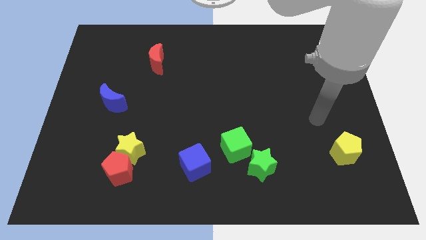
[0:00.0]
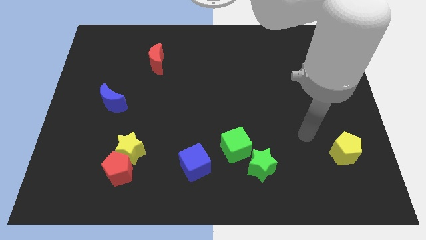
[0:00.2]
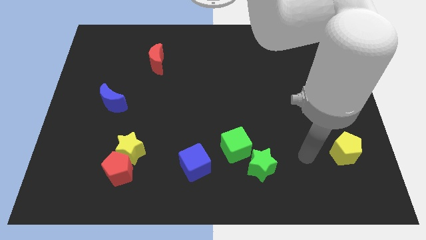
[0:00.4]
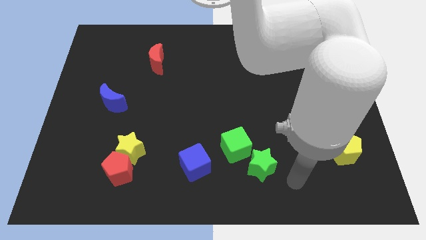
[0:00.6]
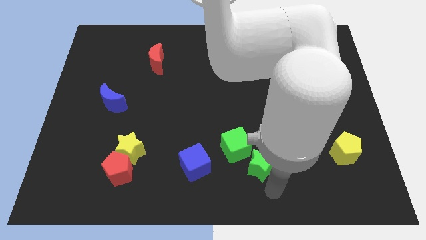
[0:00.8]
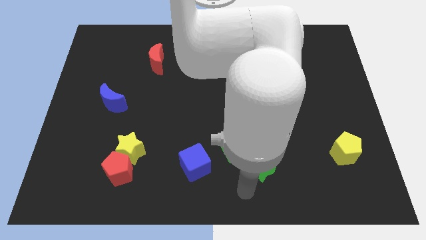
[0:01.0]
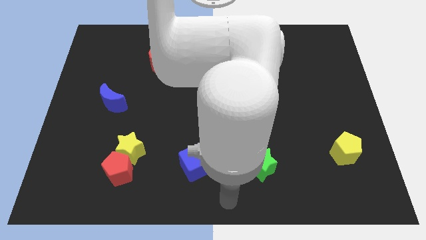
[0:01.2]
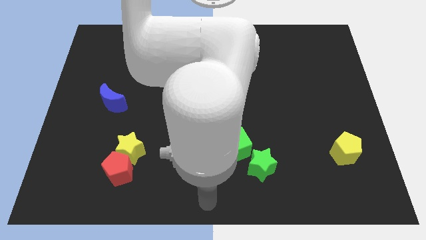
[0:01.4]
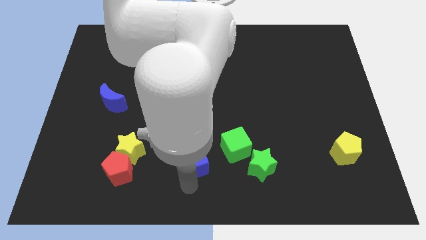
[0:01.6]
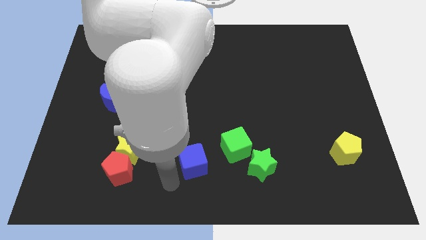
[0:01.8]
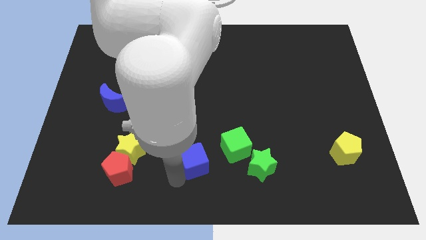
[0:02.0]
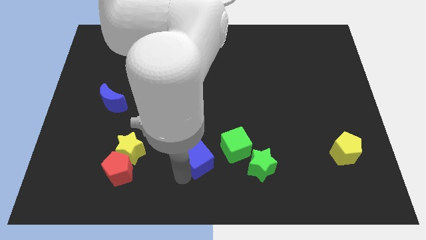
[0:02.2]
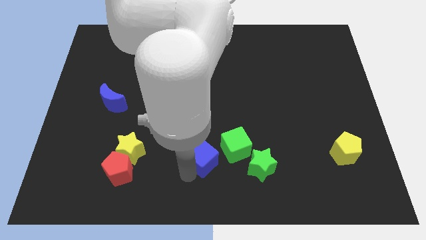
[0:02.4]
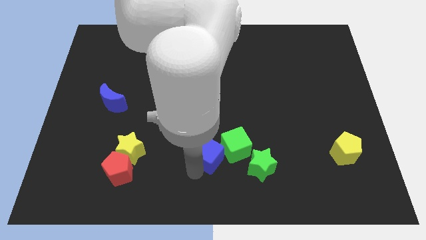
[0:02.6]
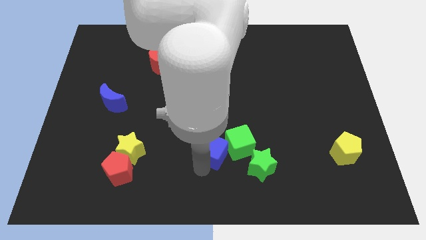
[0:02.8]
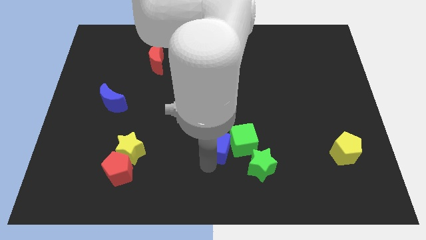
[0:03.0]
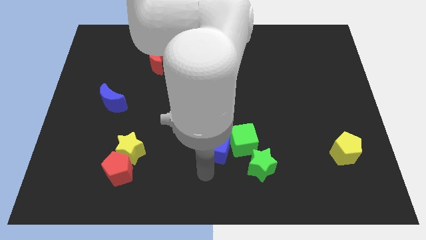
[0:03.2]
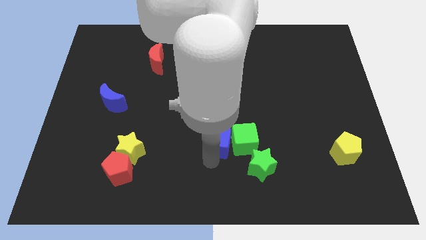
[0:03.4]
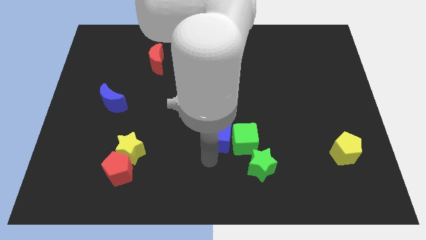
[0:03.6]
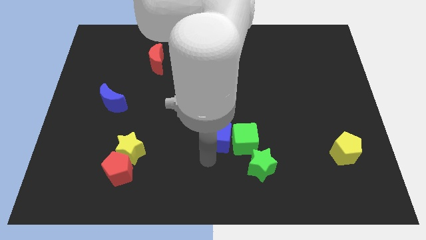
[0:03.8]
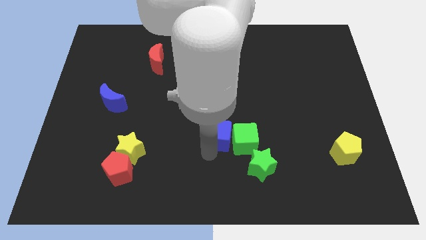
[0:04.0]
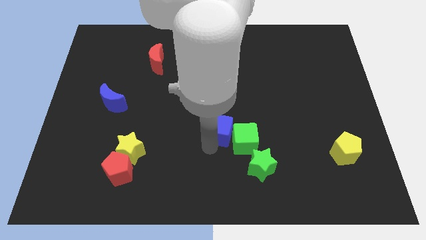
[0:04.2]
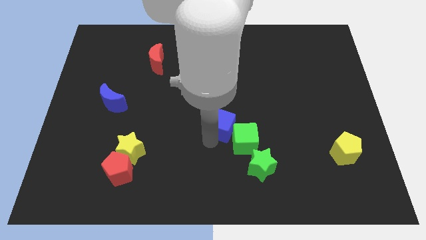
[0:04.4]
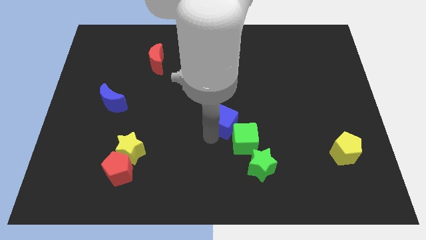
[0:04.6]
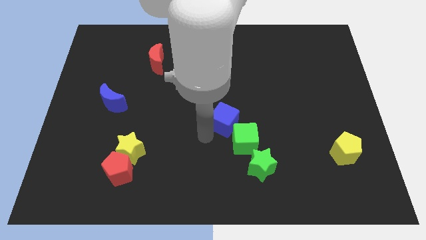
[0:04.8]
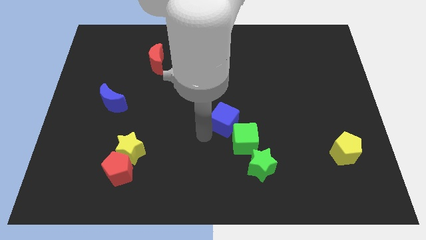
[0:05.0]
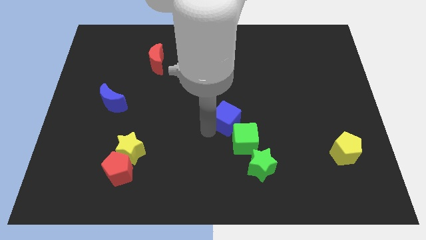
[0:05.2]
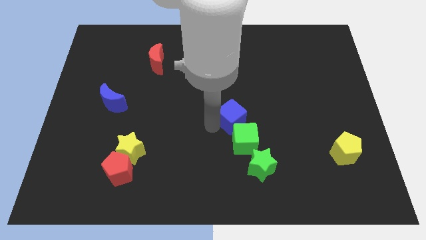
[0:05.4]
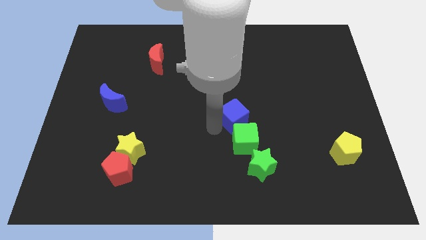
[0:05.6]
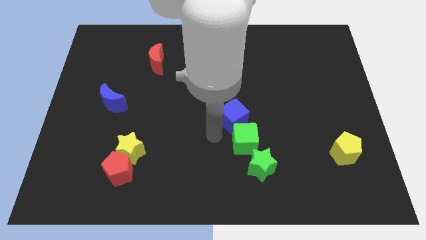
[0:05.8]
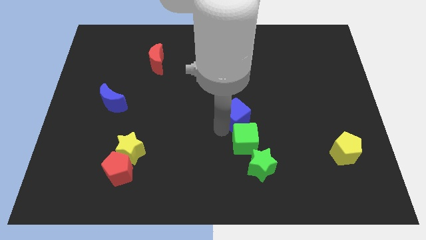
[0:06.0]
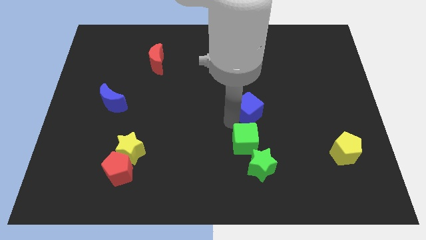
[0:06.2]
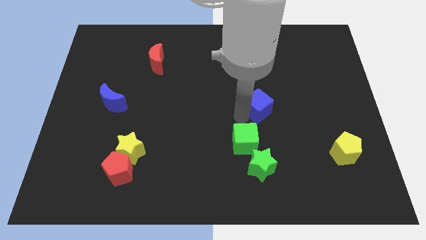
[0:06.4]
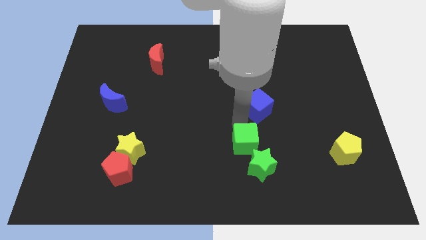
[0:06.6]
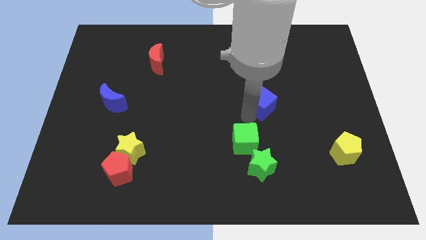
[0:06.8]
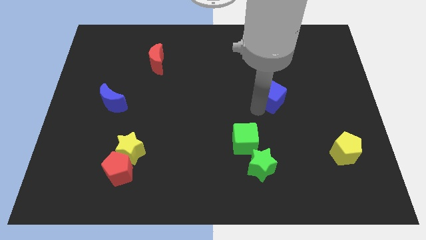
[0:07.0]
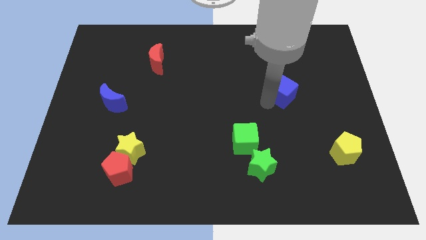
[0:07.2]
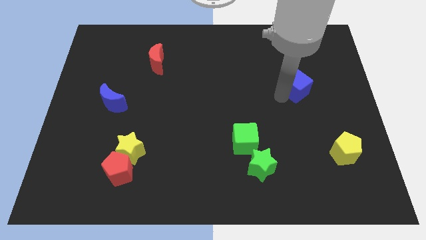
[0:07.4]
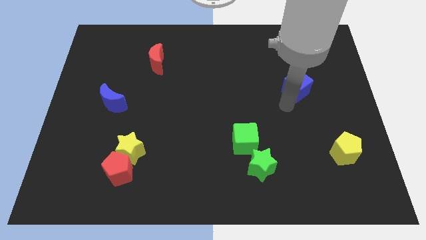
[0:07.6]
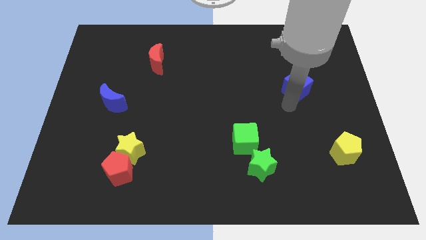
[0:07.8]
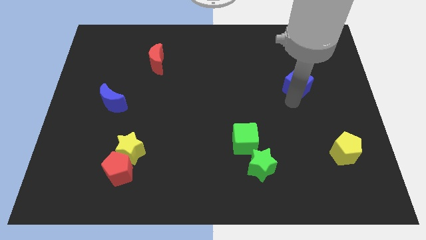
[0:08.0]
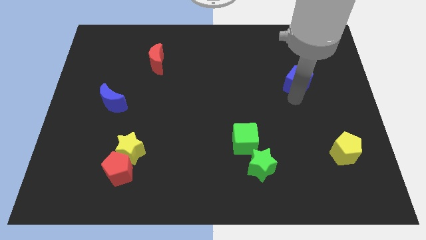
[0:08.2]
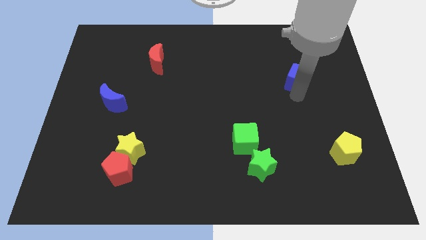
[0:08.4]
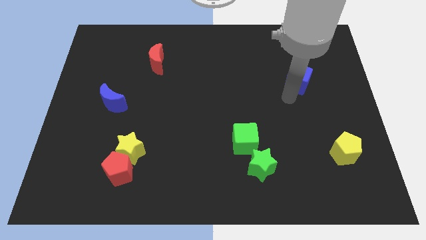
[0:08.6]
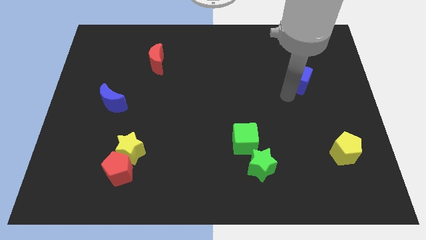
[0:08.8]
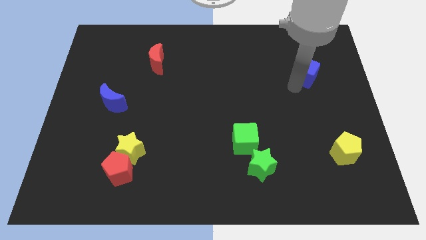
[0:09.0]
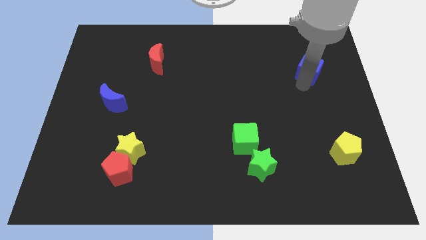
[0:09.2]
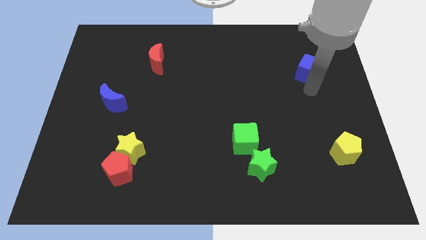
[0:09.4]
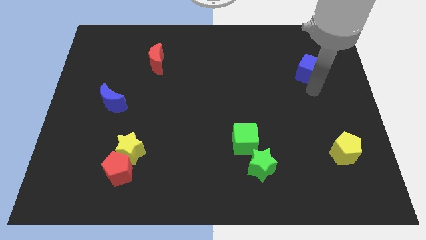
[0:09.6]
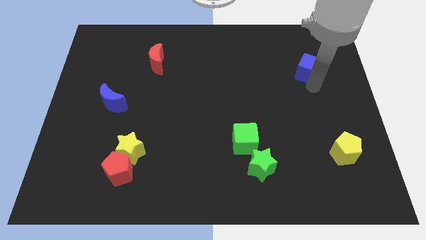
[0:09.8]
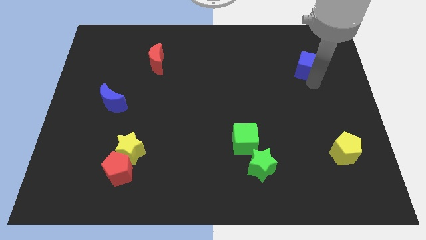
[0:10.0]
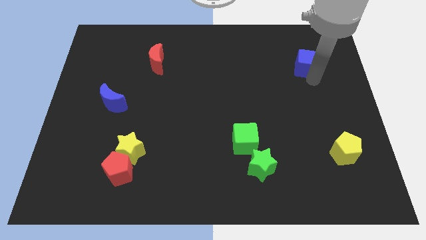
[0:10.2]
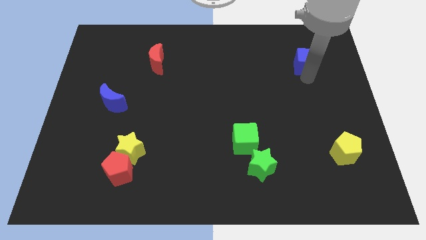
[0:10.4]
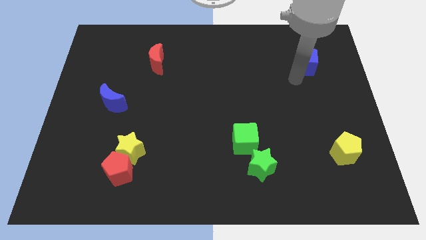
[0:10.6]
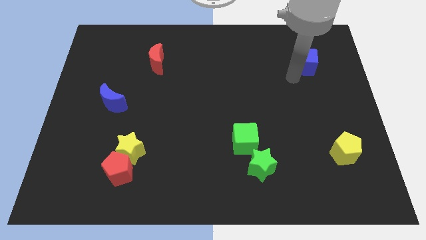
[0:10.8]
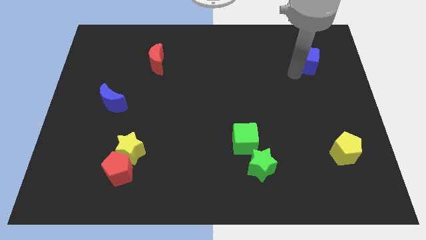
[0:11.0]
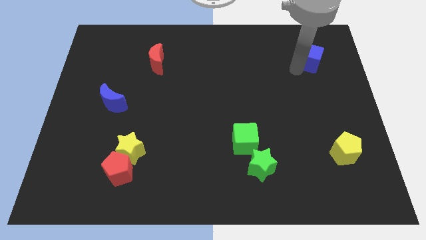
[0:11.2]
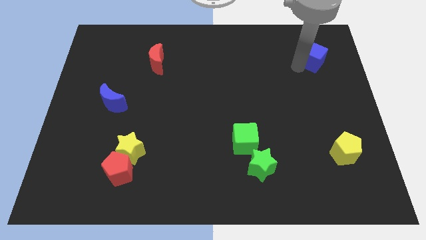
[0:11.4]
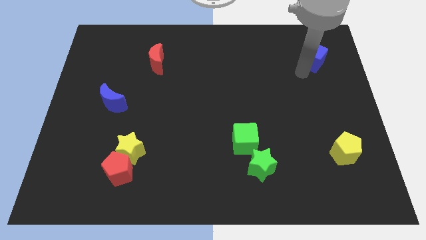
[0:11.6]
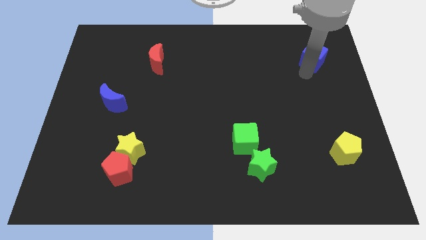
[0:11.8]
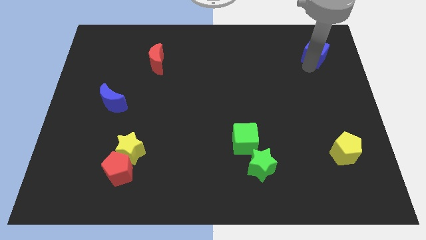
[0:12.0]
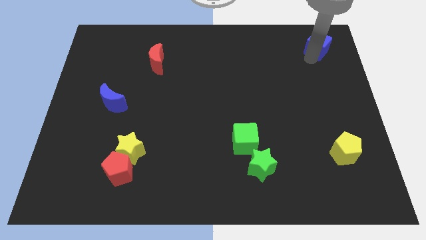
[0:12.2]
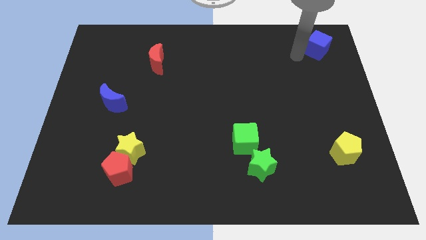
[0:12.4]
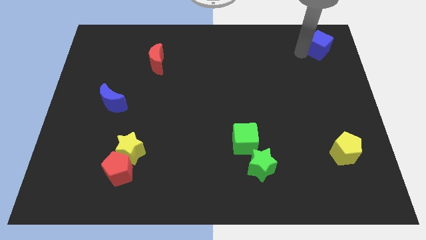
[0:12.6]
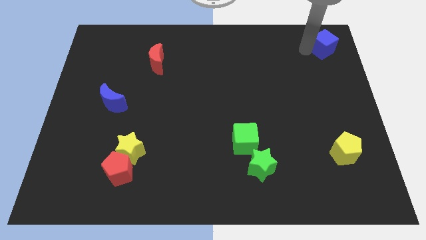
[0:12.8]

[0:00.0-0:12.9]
move the blue cube to the upper right corner

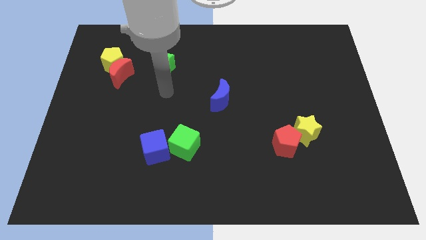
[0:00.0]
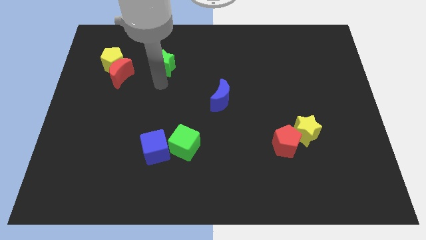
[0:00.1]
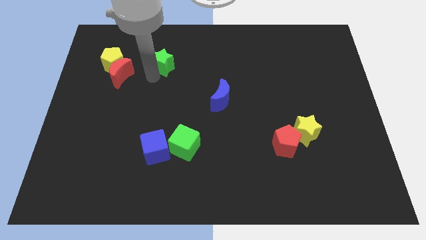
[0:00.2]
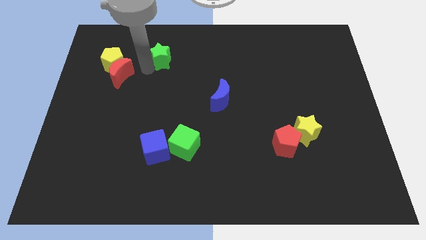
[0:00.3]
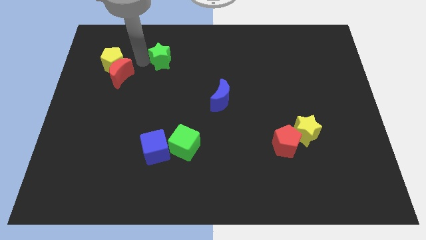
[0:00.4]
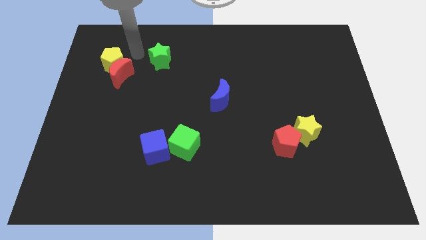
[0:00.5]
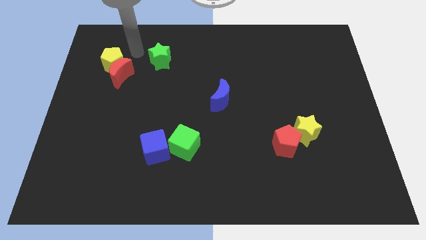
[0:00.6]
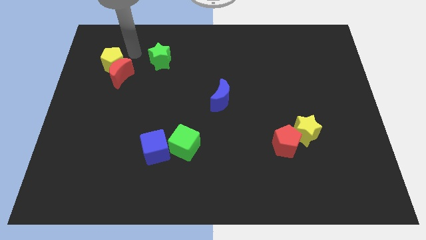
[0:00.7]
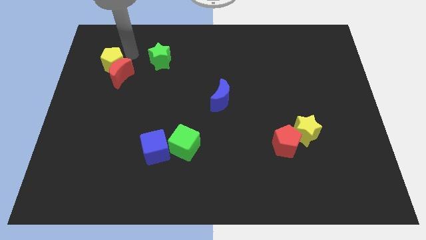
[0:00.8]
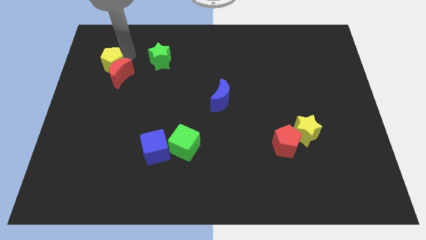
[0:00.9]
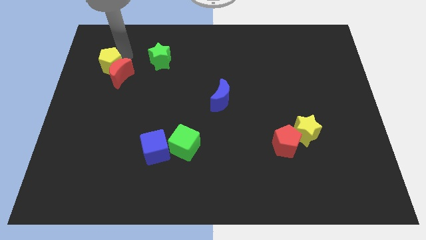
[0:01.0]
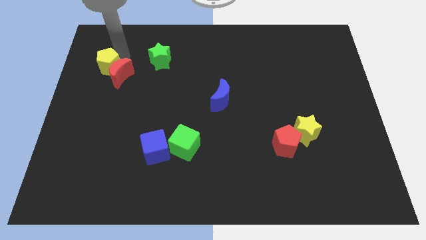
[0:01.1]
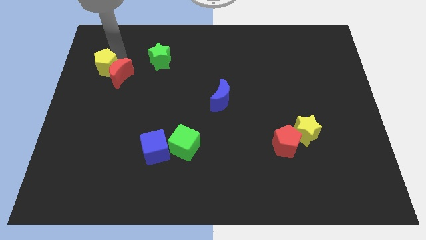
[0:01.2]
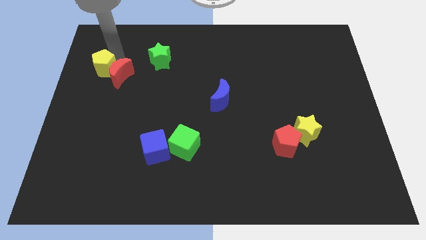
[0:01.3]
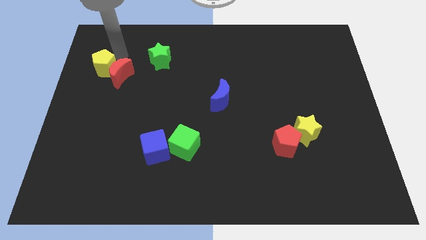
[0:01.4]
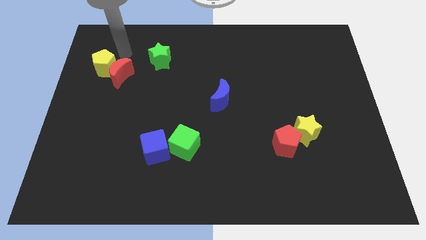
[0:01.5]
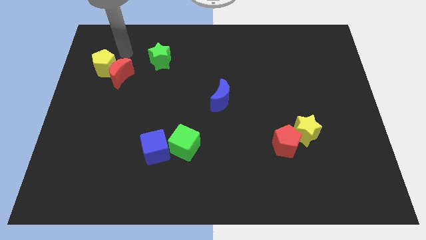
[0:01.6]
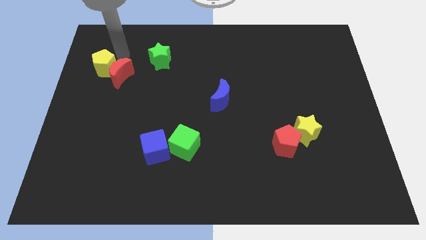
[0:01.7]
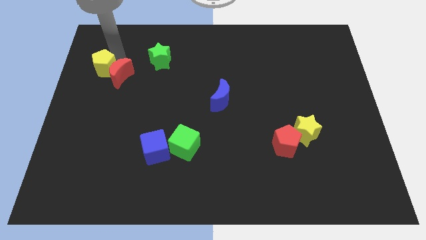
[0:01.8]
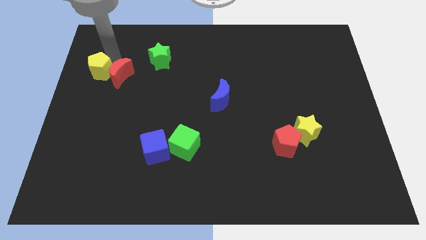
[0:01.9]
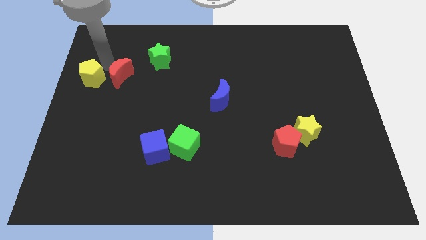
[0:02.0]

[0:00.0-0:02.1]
put the yellow pentagon to the center left
